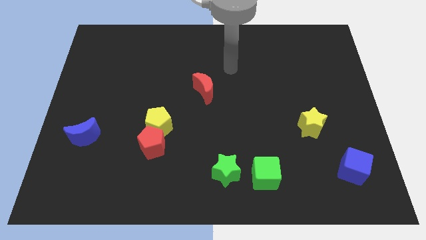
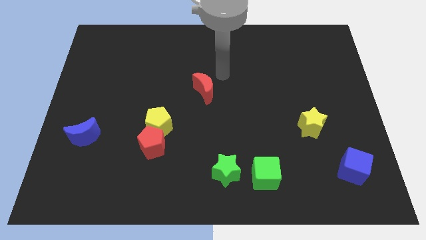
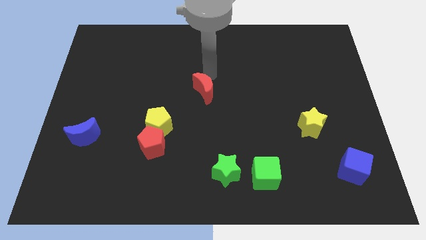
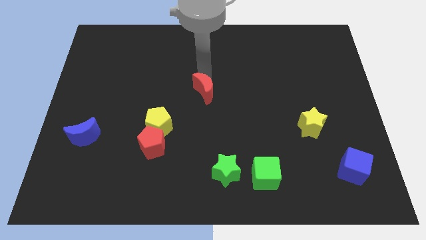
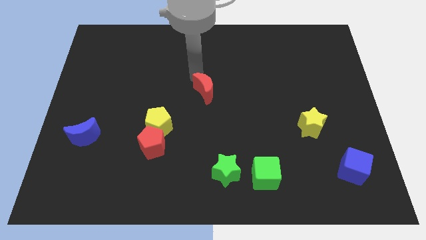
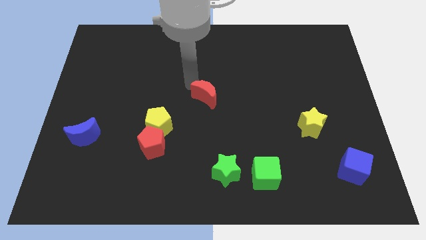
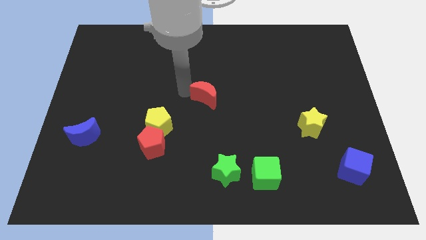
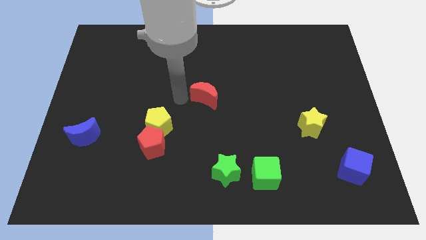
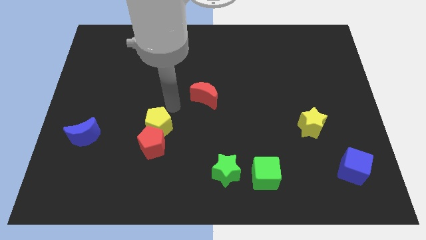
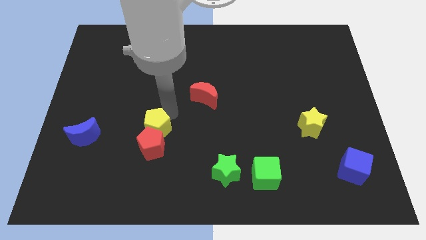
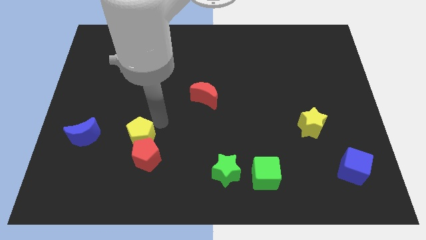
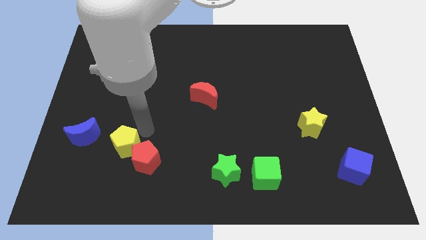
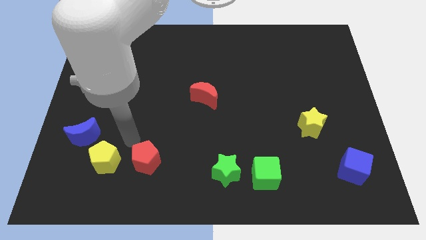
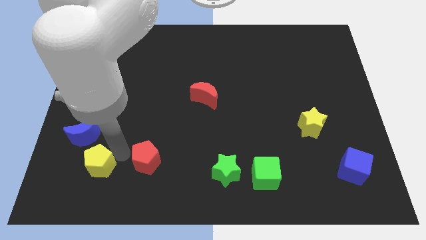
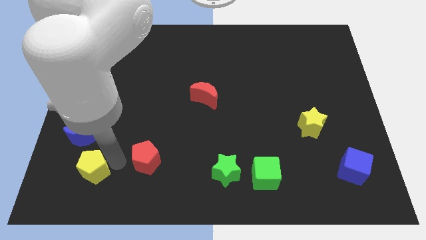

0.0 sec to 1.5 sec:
separate the red pentagon from the yellow pentagon

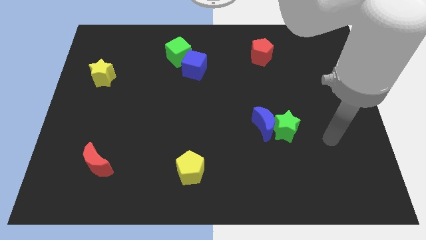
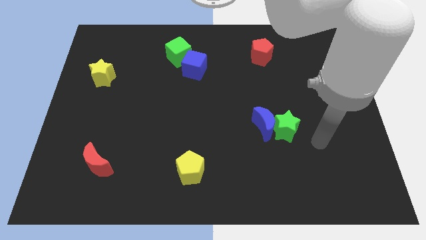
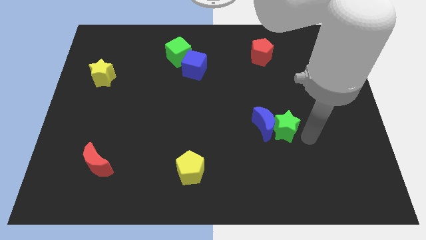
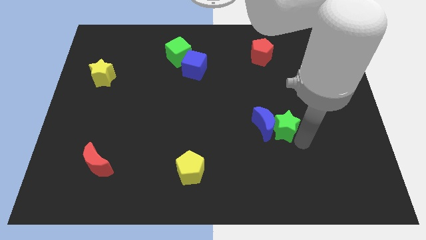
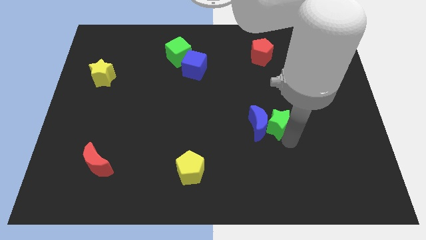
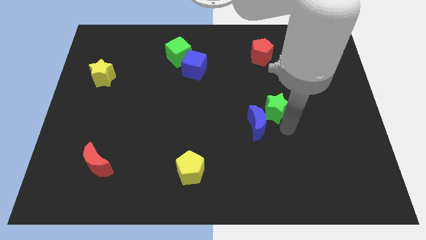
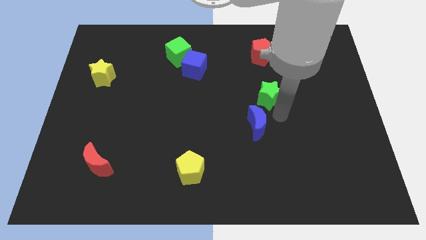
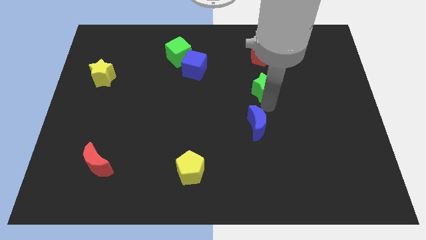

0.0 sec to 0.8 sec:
move the blue moon away from the green star

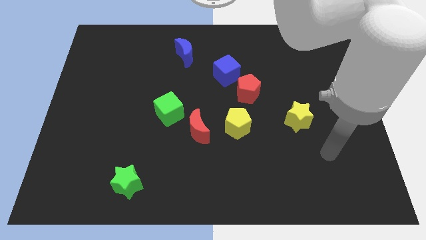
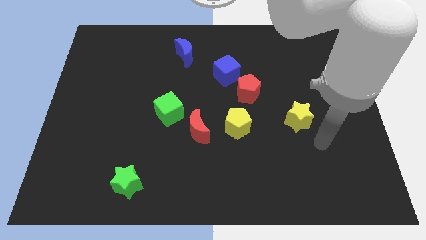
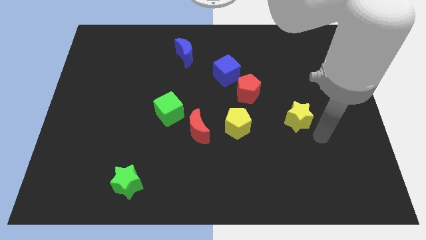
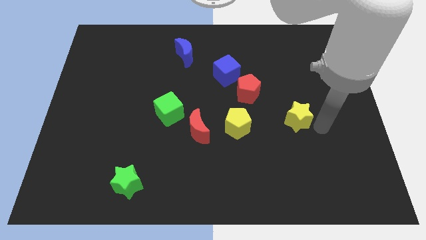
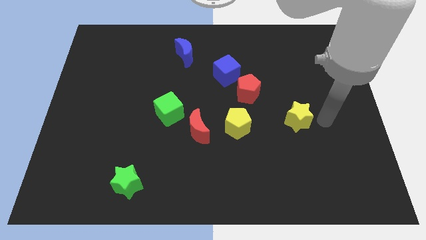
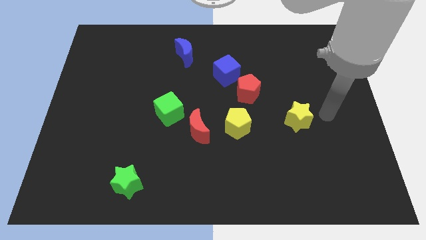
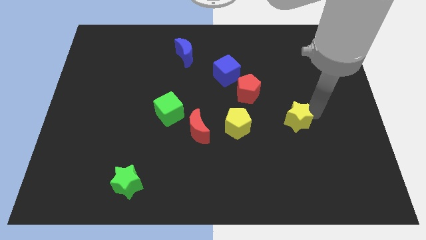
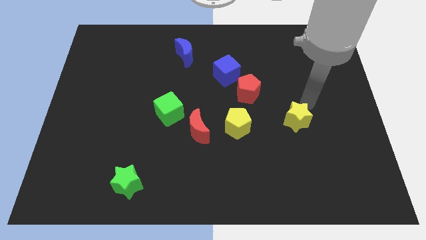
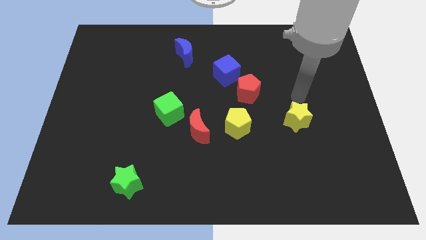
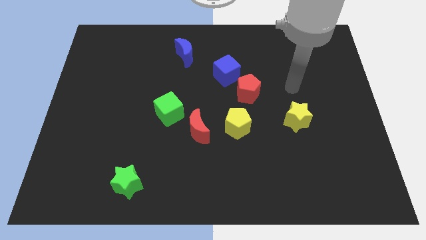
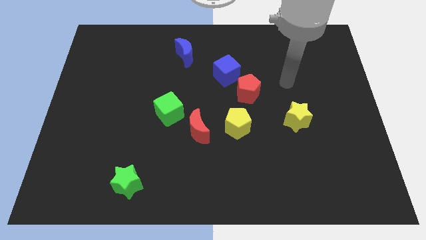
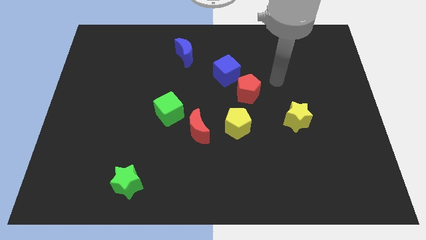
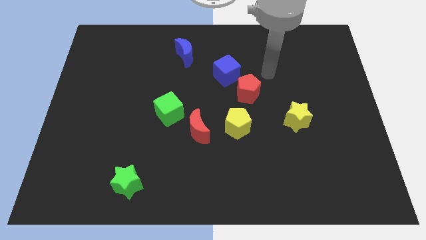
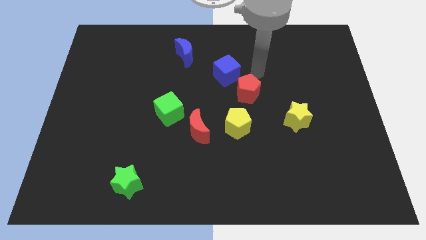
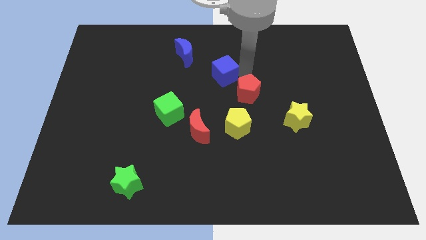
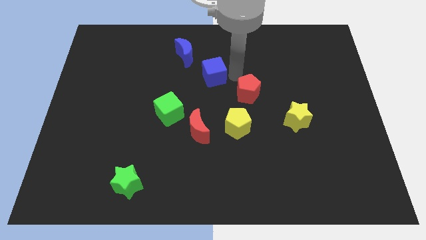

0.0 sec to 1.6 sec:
pull the red pentagon apart from the blue cube

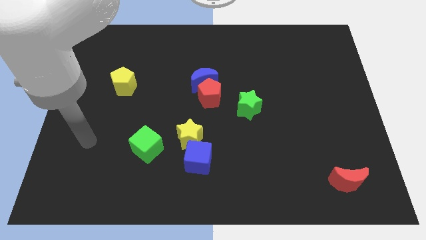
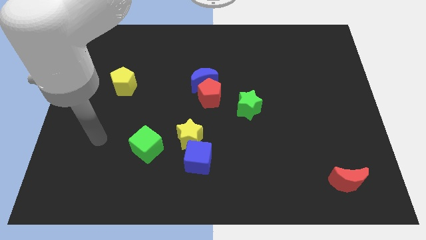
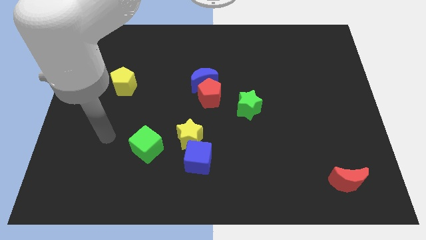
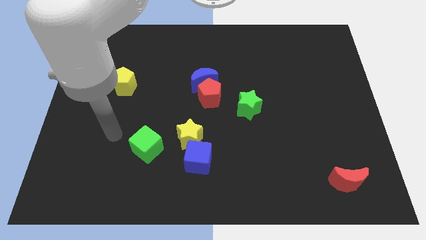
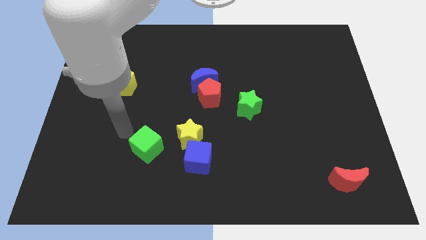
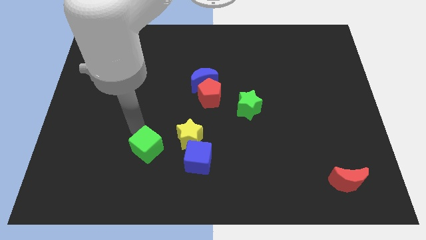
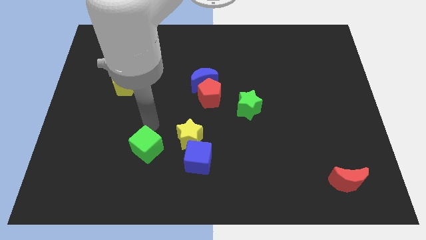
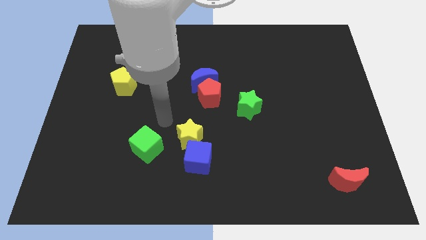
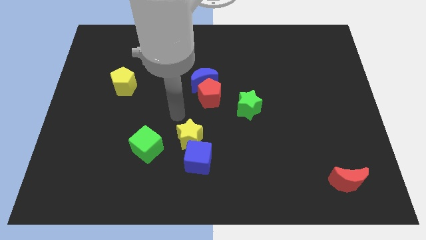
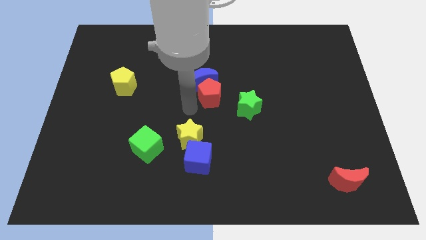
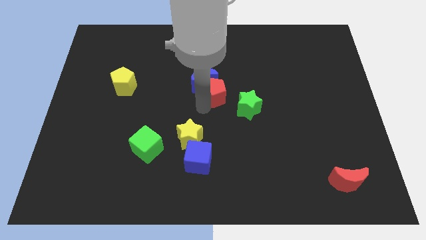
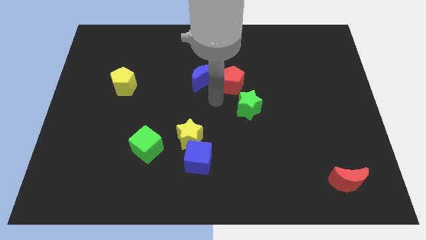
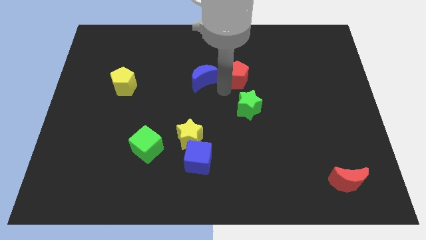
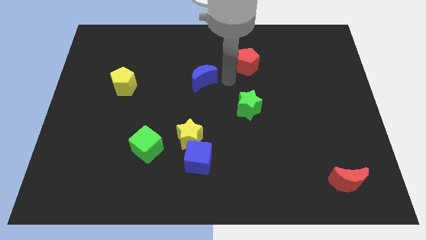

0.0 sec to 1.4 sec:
separate the blue moon from the red pentagon

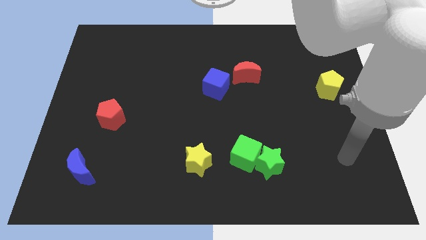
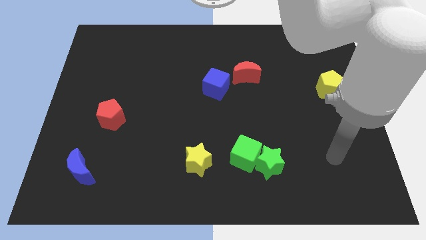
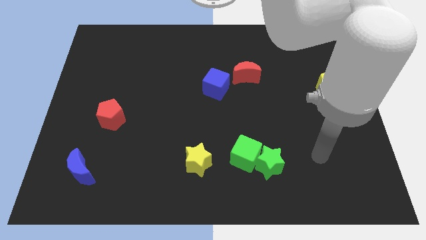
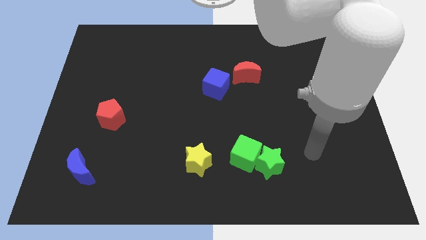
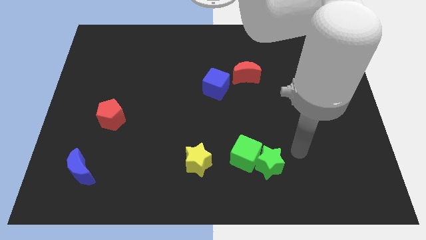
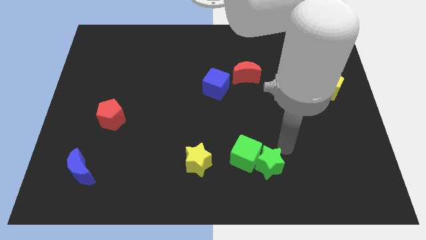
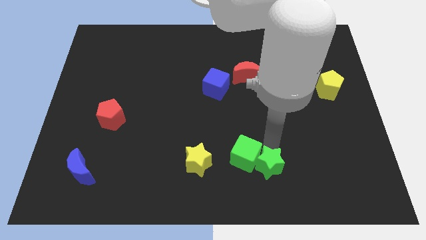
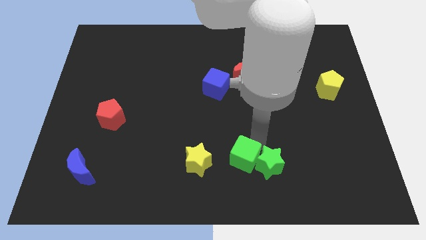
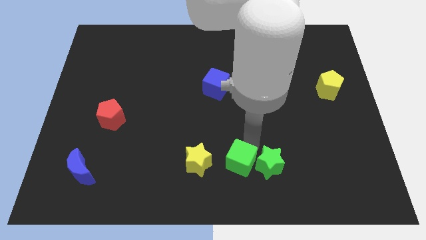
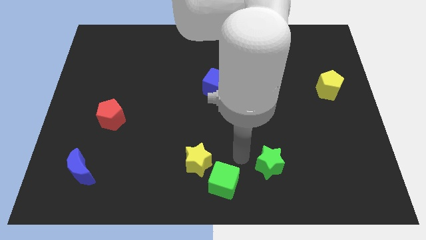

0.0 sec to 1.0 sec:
move the green star away from the green cube

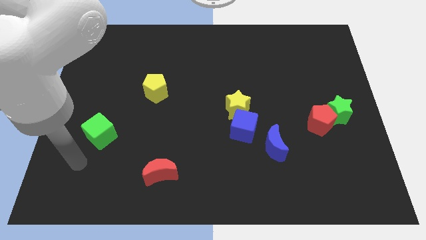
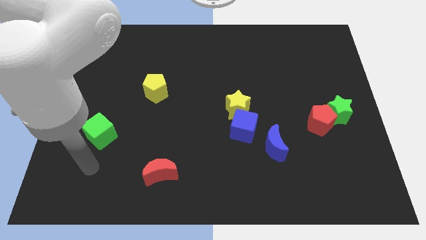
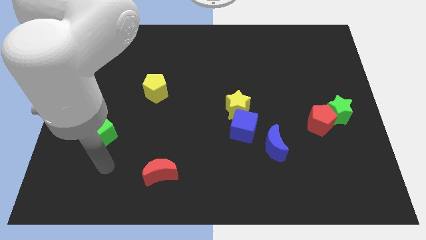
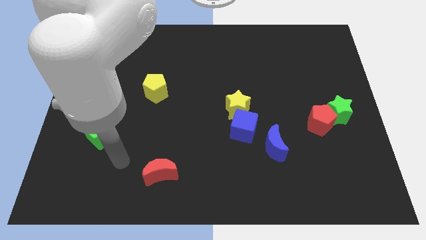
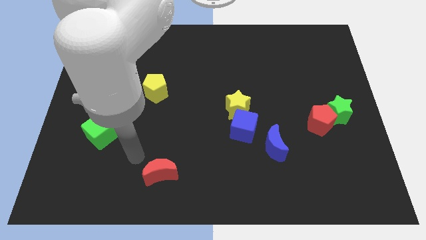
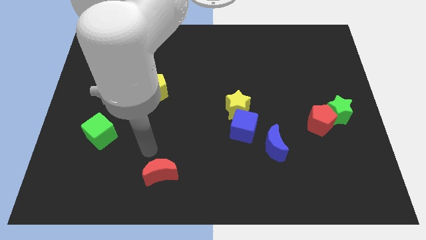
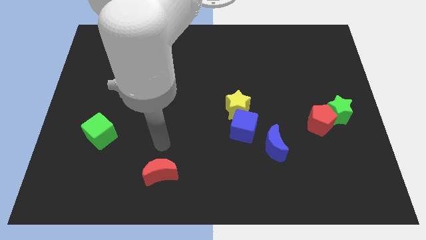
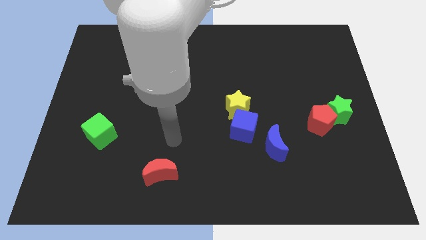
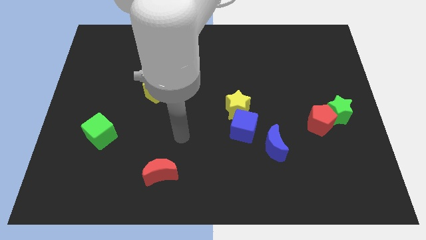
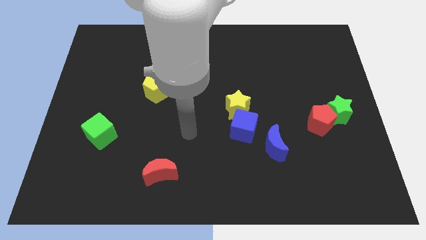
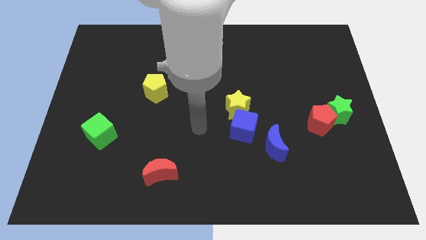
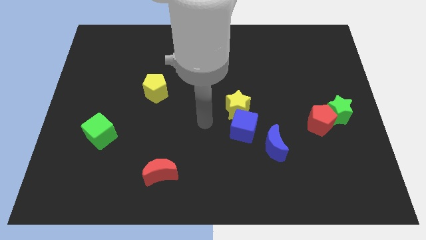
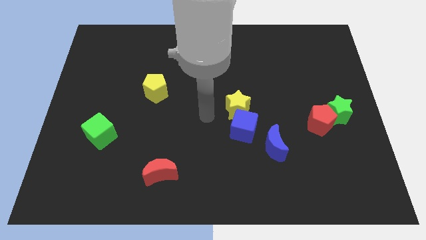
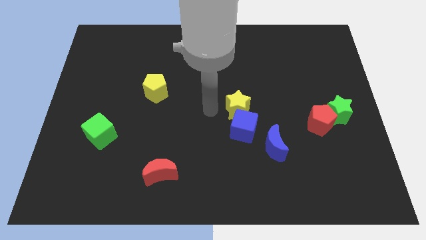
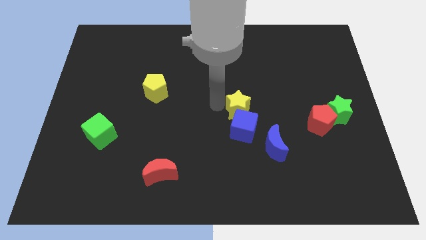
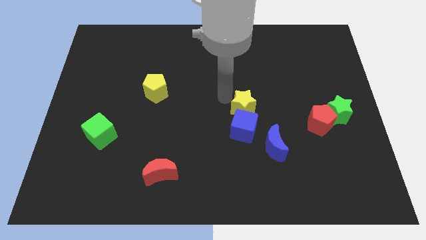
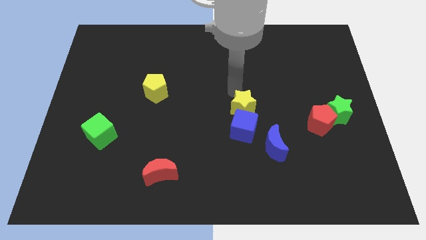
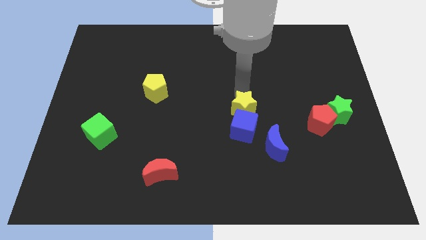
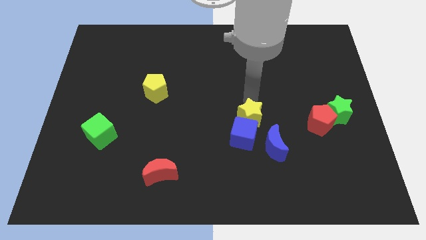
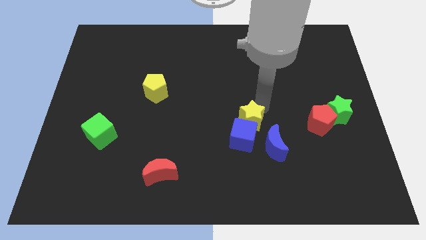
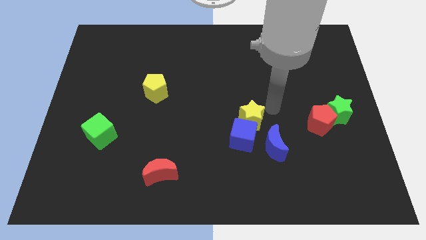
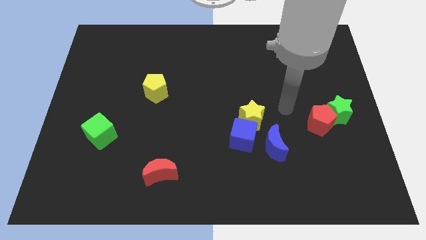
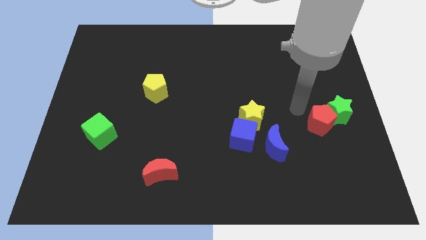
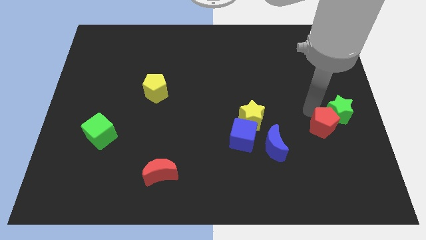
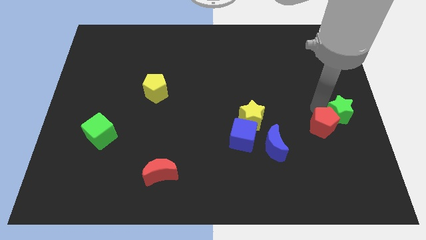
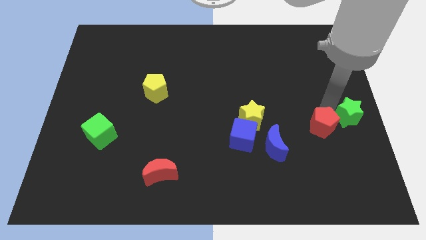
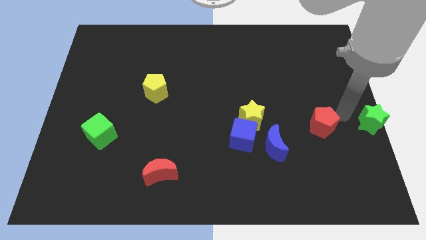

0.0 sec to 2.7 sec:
move the red pentagon away from the green star

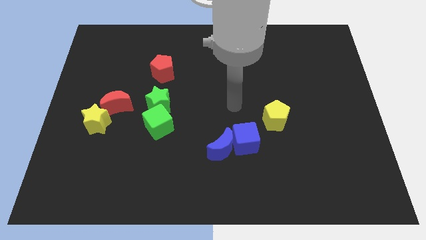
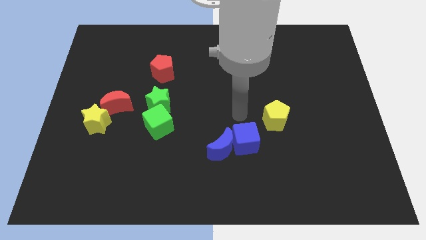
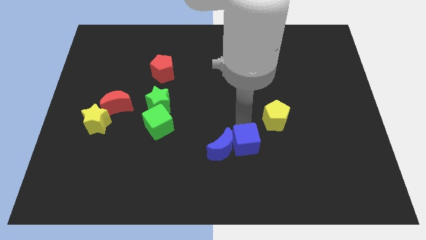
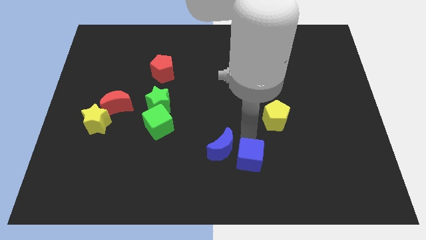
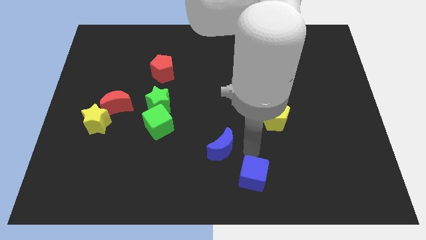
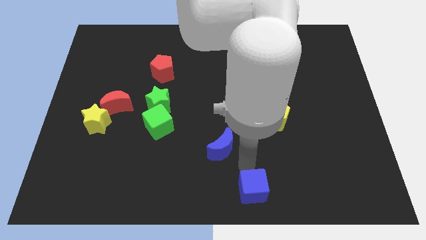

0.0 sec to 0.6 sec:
move the blue moon away from the blue cube
